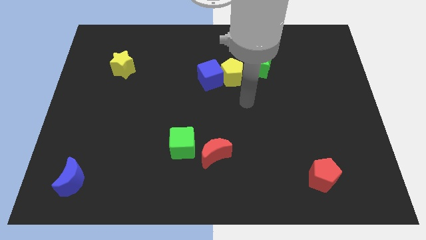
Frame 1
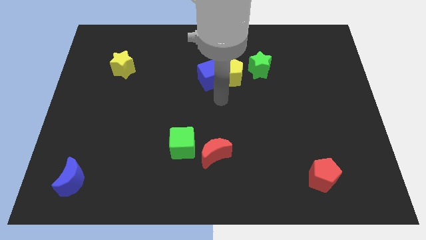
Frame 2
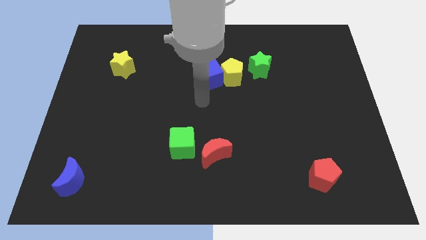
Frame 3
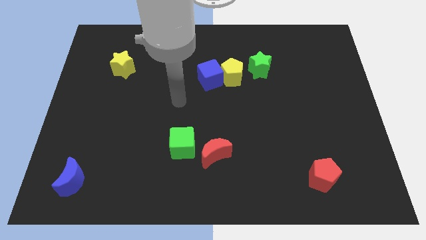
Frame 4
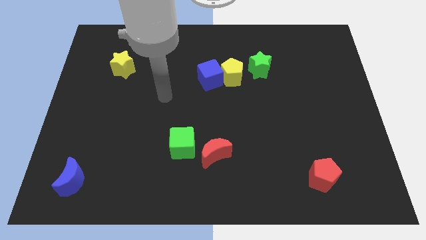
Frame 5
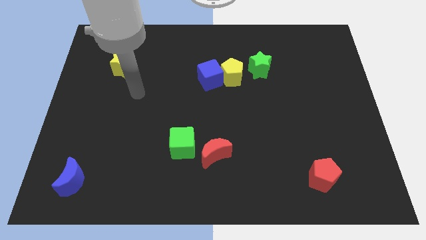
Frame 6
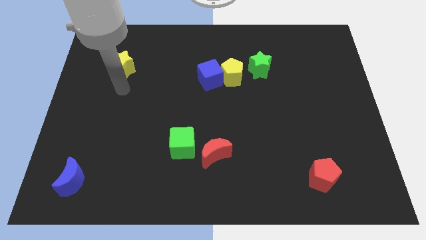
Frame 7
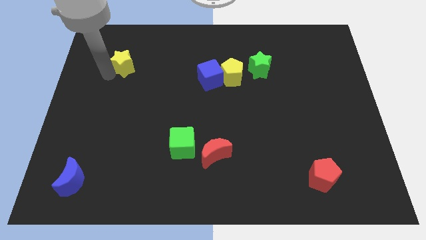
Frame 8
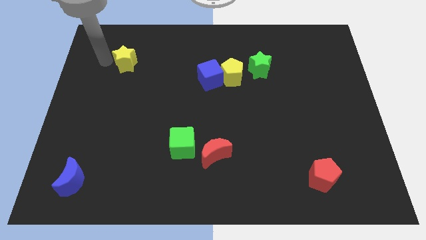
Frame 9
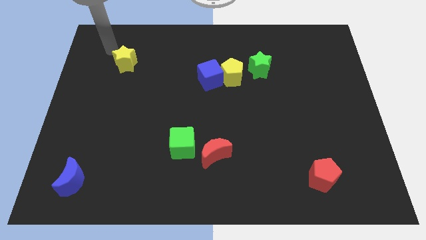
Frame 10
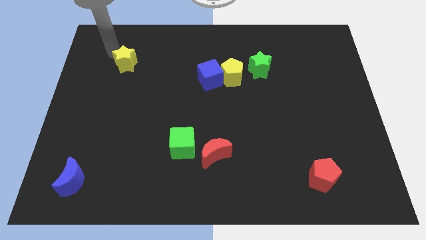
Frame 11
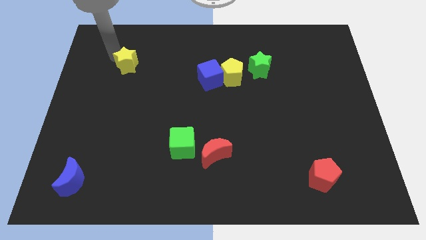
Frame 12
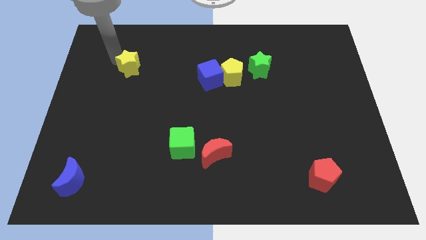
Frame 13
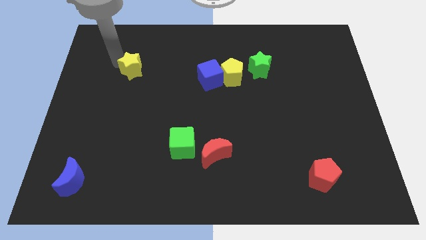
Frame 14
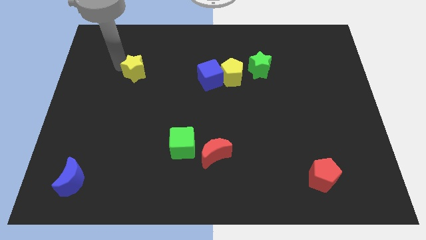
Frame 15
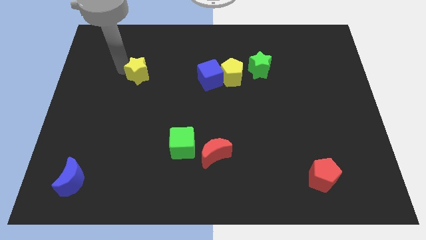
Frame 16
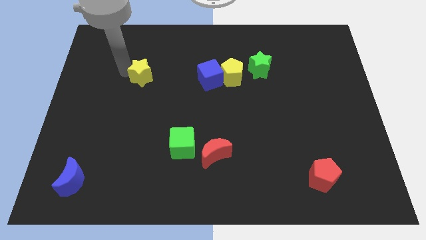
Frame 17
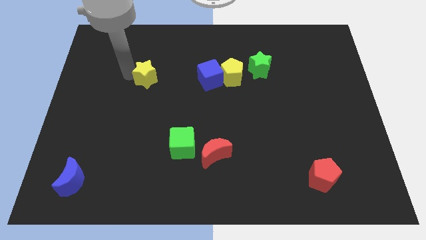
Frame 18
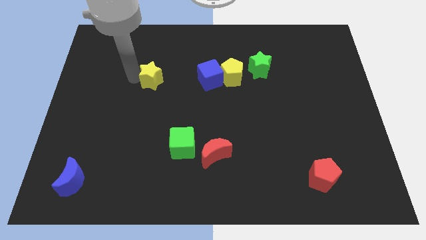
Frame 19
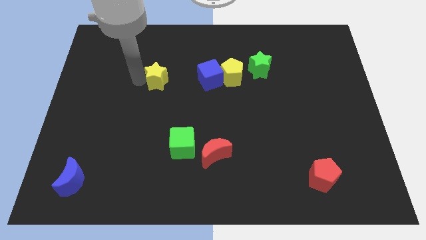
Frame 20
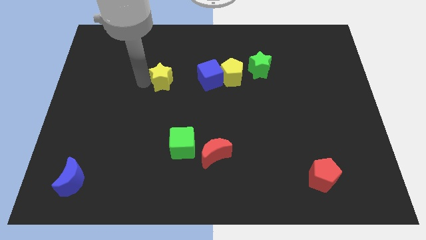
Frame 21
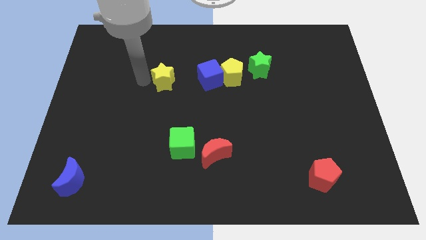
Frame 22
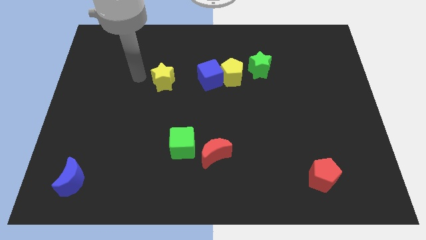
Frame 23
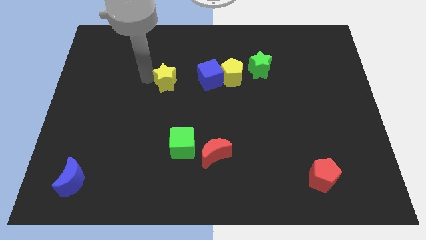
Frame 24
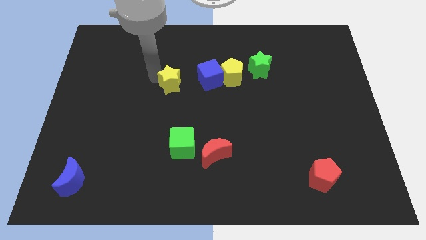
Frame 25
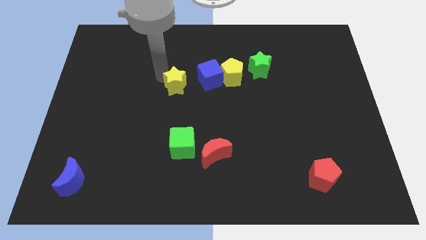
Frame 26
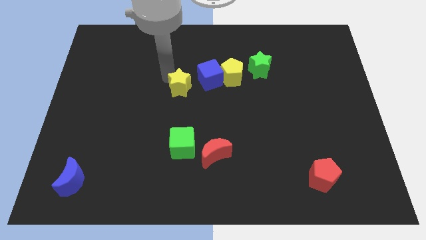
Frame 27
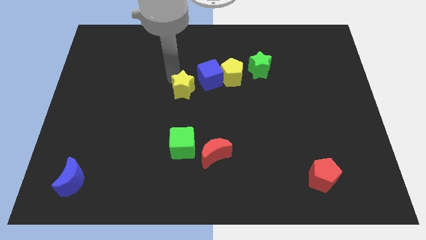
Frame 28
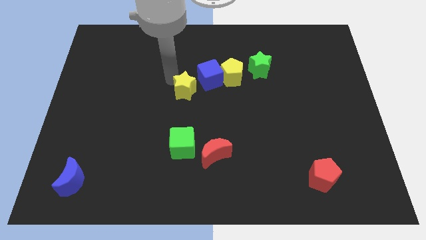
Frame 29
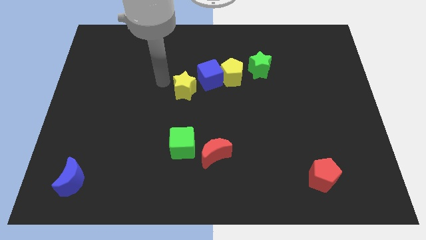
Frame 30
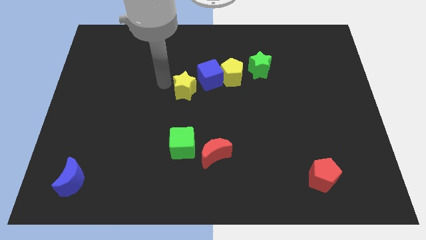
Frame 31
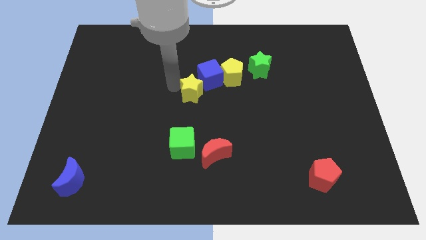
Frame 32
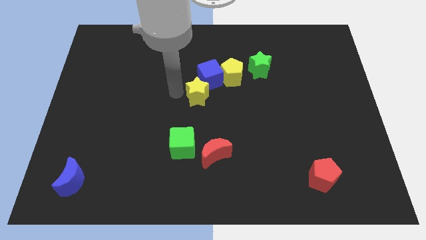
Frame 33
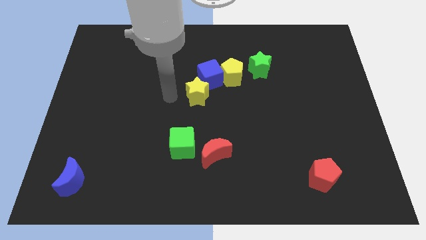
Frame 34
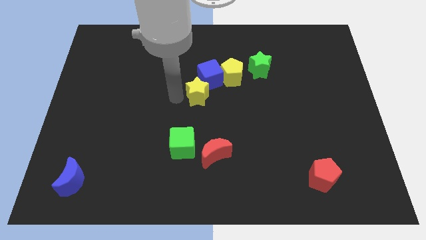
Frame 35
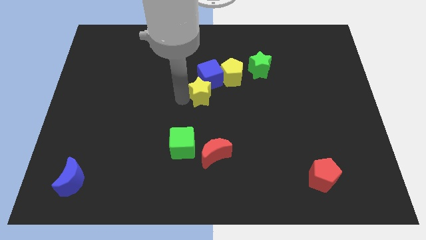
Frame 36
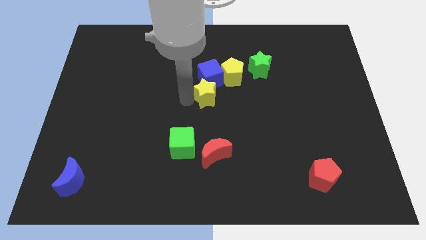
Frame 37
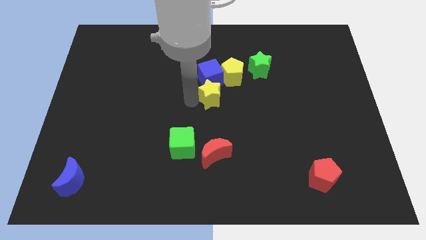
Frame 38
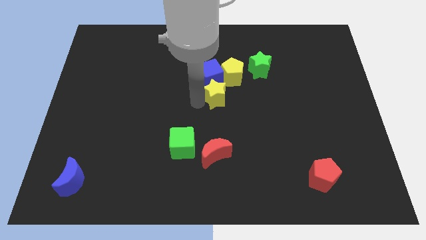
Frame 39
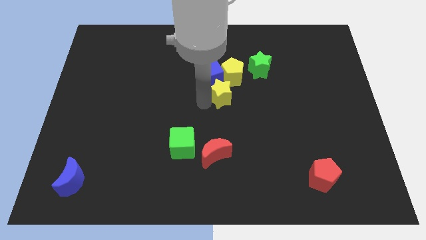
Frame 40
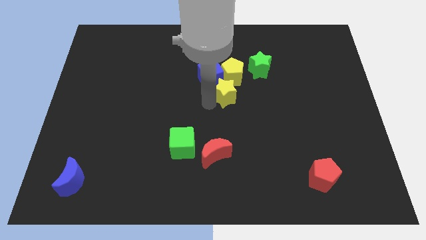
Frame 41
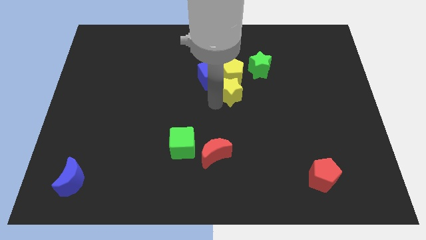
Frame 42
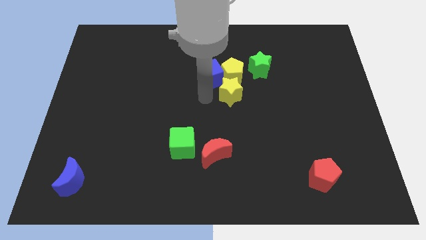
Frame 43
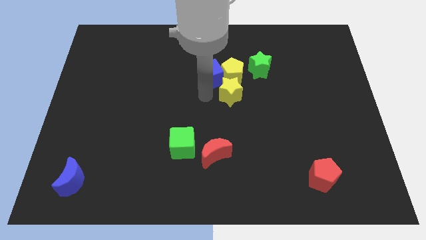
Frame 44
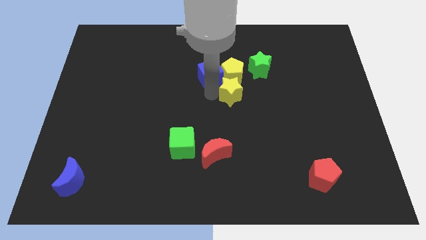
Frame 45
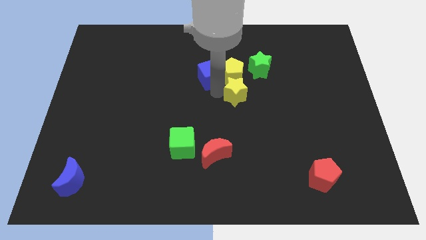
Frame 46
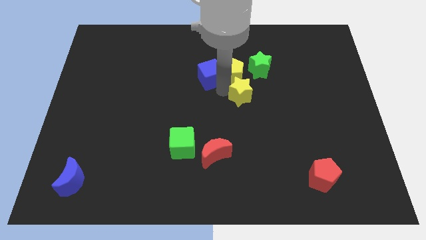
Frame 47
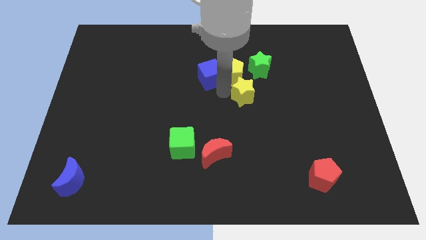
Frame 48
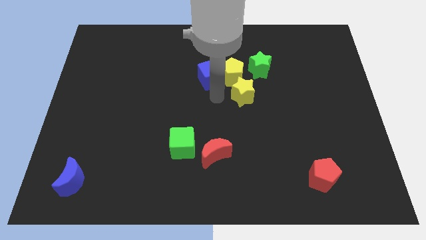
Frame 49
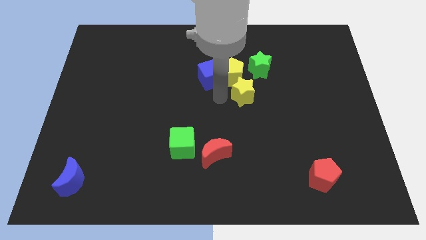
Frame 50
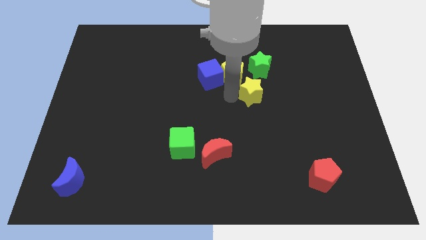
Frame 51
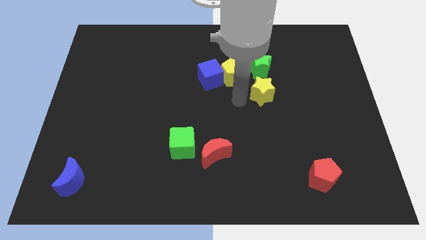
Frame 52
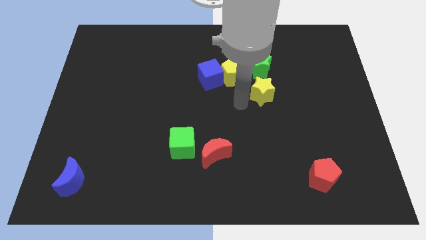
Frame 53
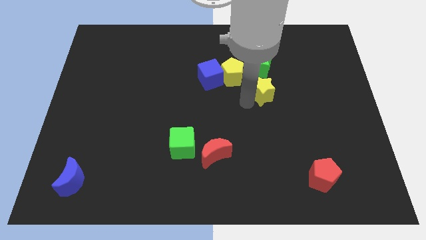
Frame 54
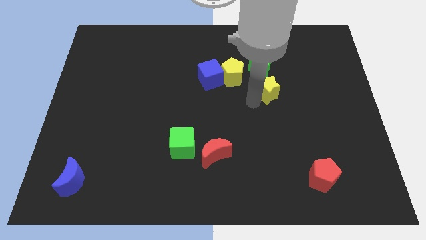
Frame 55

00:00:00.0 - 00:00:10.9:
push the yellow star to the bottom right side of the green star

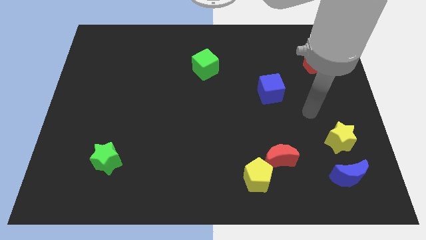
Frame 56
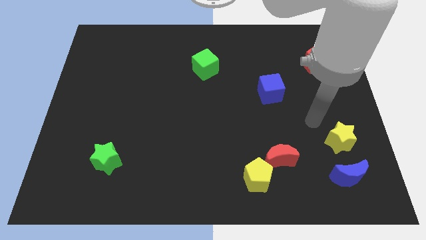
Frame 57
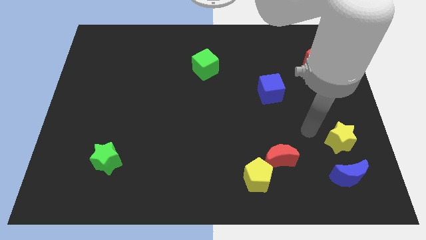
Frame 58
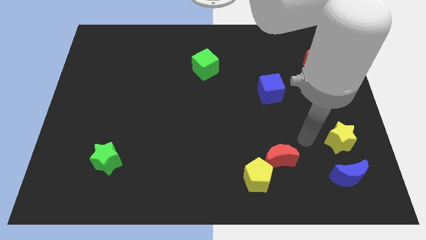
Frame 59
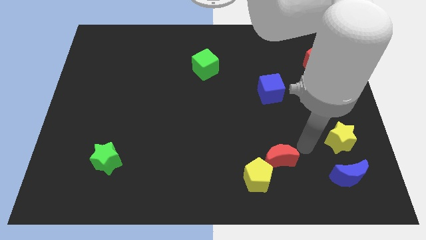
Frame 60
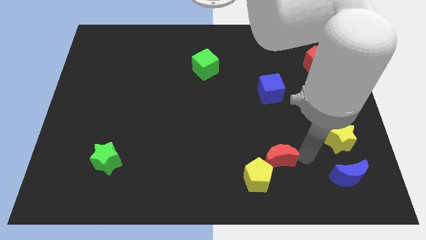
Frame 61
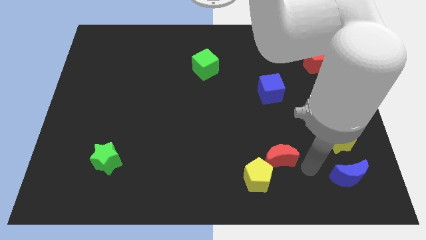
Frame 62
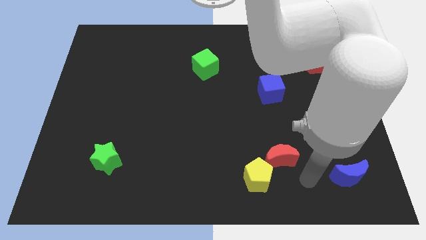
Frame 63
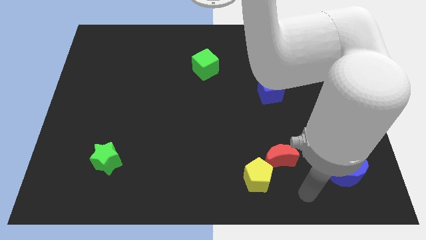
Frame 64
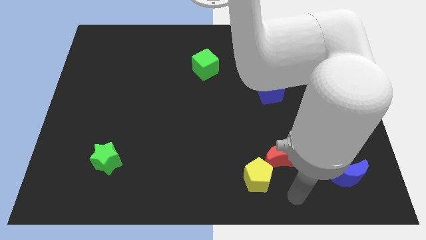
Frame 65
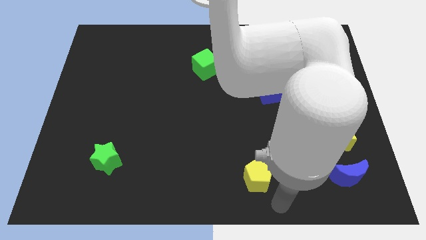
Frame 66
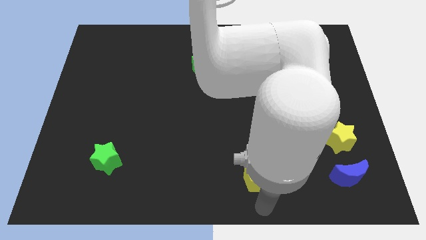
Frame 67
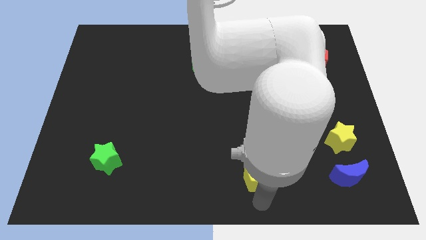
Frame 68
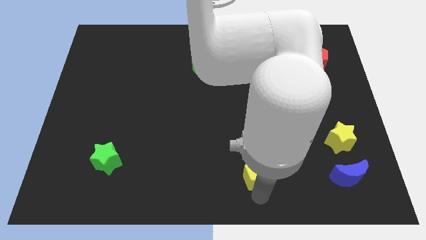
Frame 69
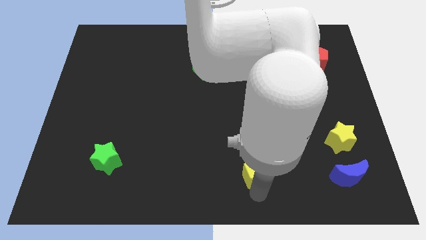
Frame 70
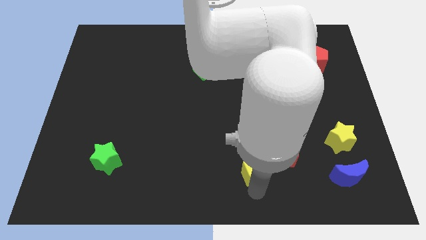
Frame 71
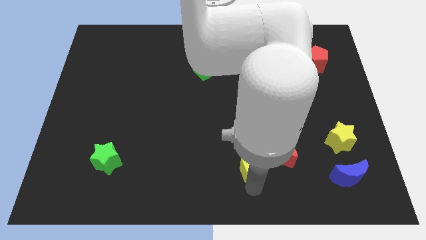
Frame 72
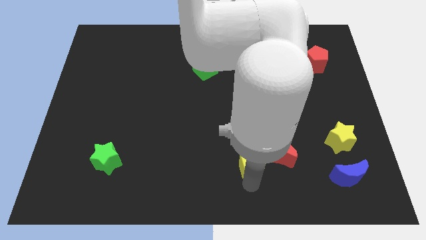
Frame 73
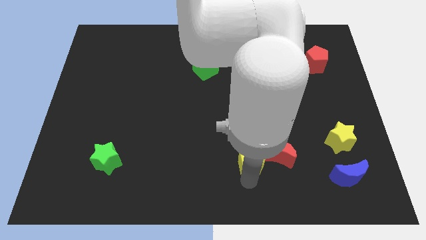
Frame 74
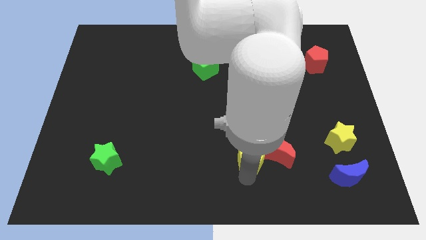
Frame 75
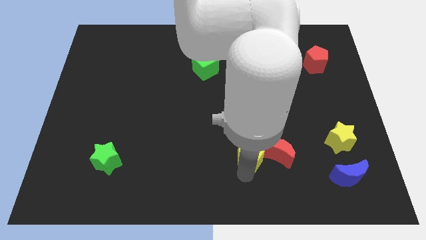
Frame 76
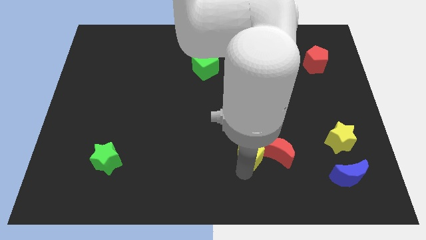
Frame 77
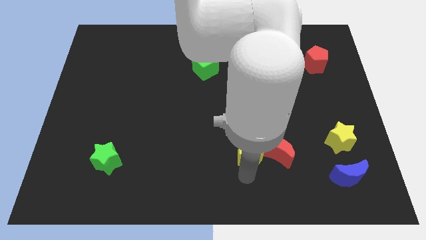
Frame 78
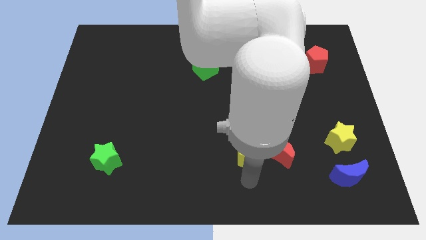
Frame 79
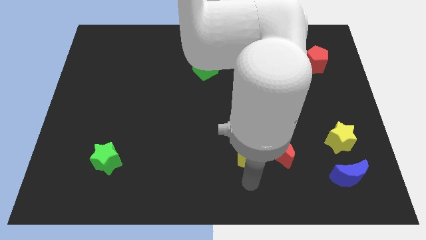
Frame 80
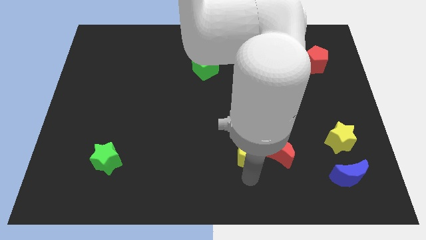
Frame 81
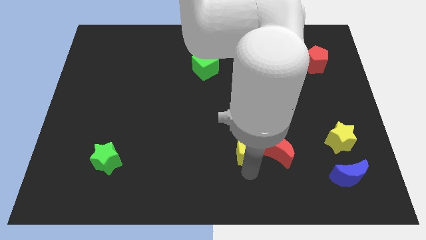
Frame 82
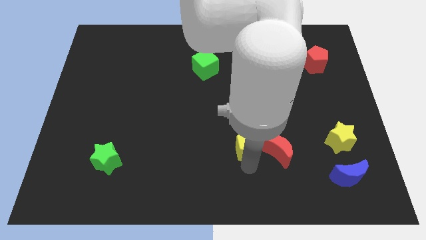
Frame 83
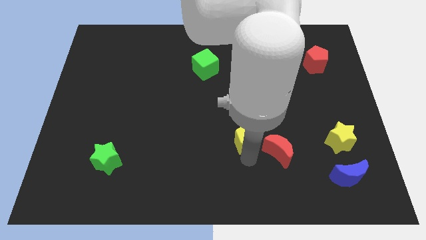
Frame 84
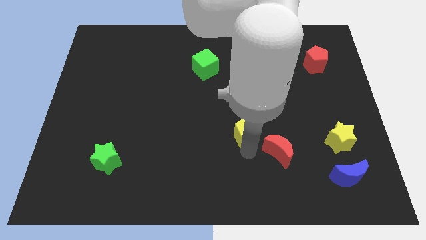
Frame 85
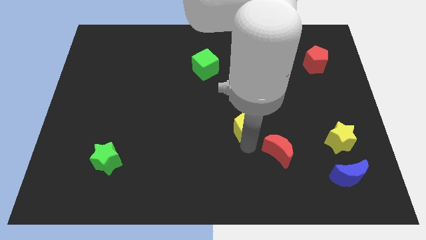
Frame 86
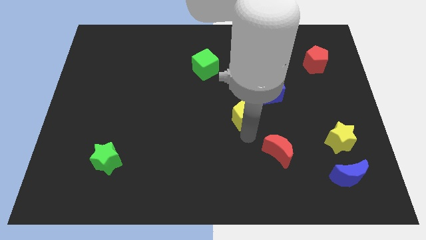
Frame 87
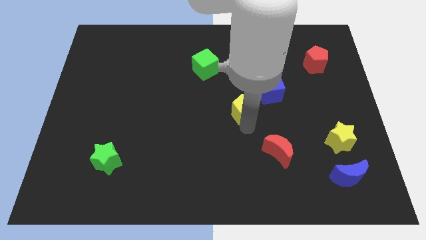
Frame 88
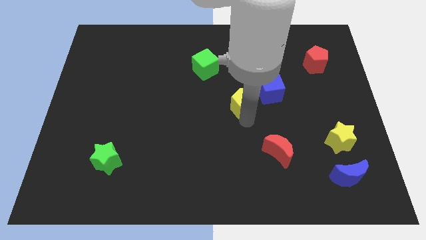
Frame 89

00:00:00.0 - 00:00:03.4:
put the yellow pentagon left of the blue cube
